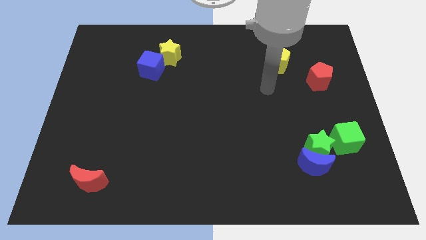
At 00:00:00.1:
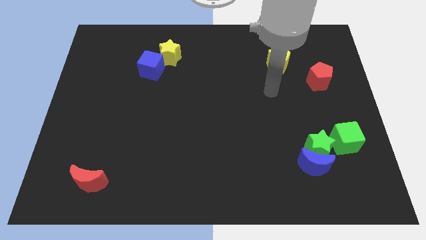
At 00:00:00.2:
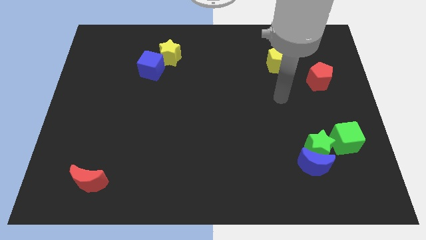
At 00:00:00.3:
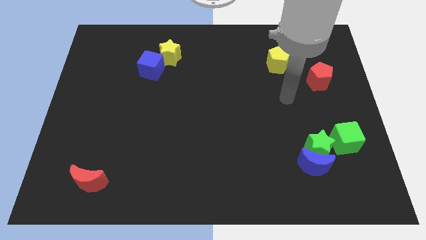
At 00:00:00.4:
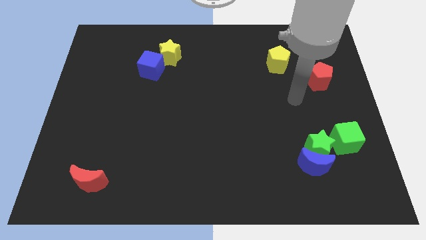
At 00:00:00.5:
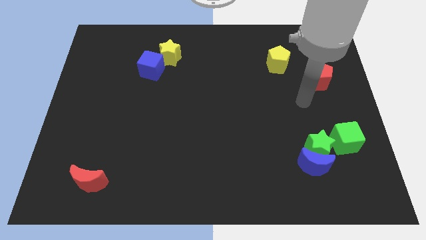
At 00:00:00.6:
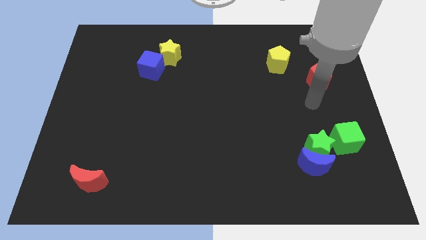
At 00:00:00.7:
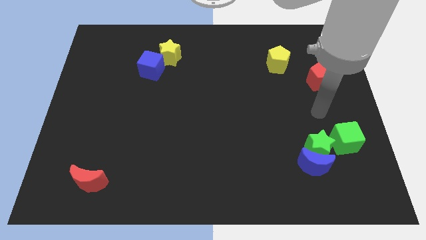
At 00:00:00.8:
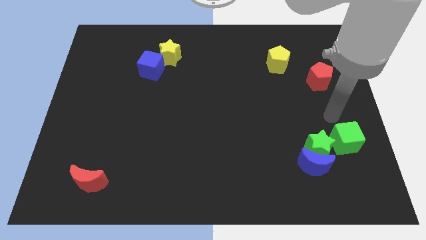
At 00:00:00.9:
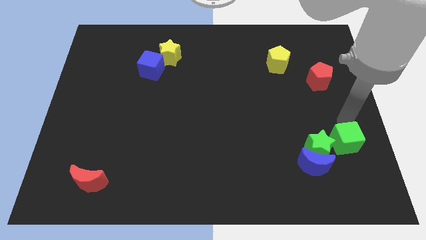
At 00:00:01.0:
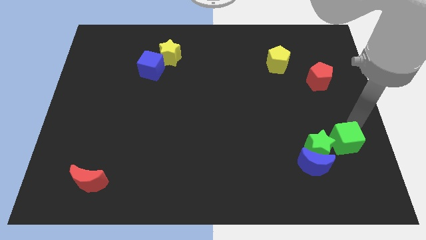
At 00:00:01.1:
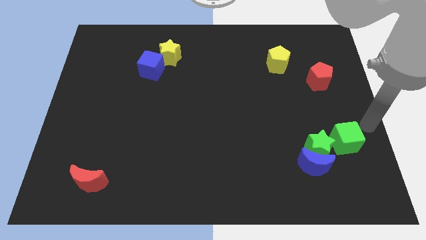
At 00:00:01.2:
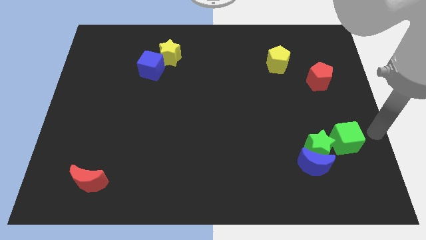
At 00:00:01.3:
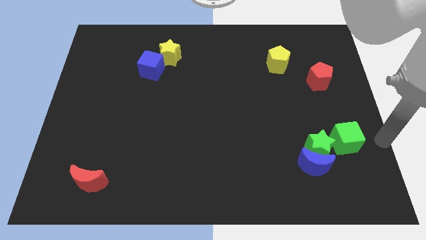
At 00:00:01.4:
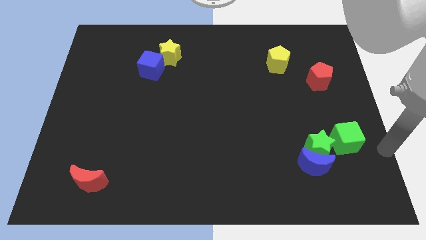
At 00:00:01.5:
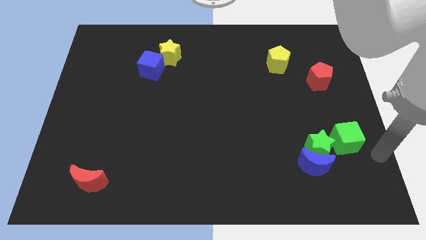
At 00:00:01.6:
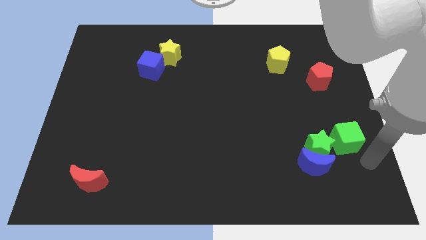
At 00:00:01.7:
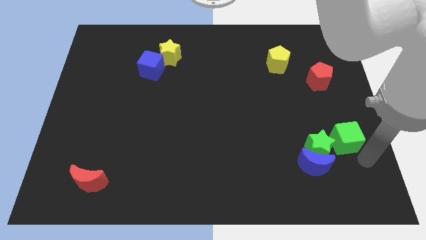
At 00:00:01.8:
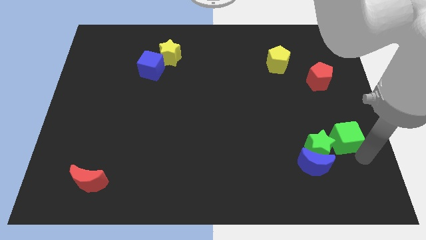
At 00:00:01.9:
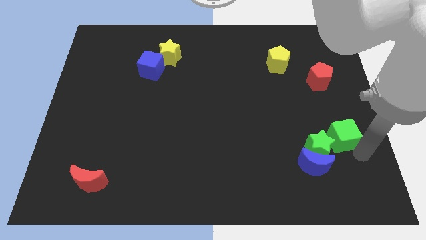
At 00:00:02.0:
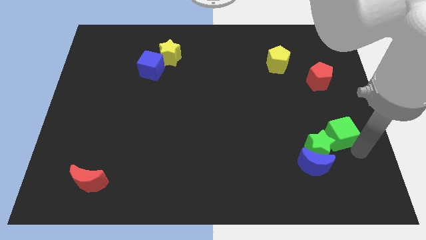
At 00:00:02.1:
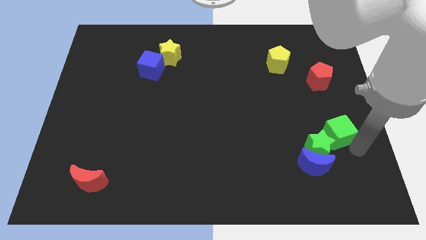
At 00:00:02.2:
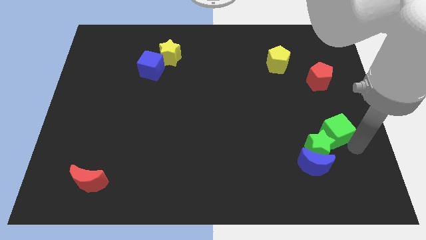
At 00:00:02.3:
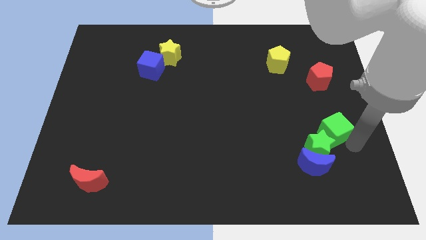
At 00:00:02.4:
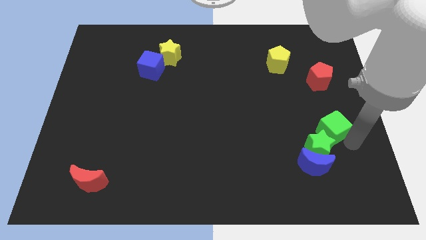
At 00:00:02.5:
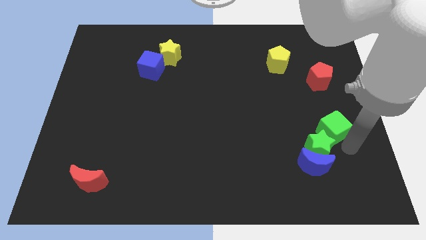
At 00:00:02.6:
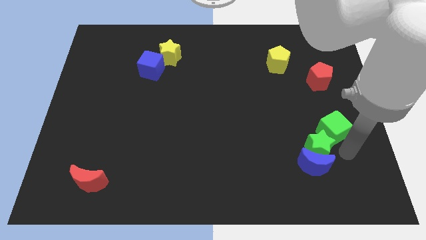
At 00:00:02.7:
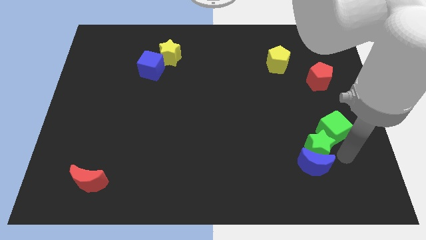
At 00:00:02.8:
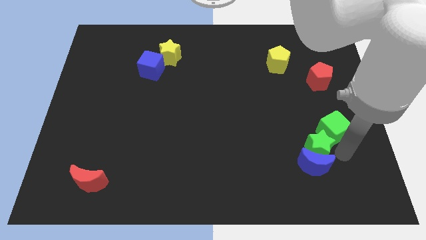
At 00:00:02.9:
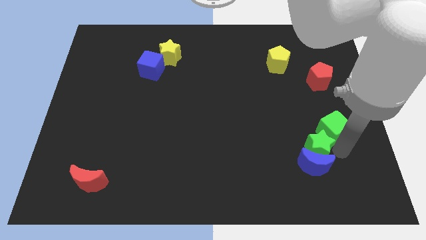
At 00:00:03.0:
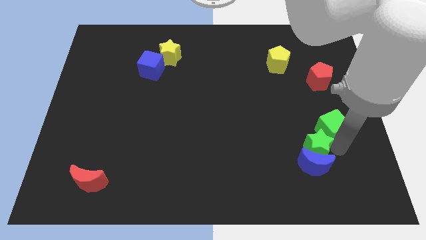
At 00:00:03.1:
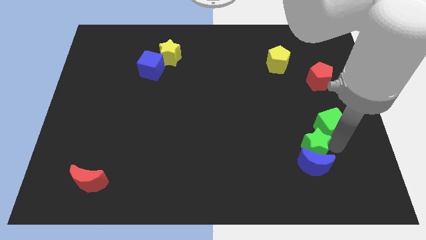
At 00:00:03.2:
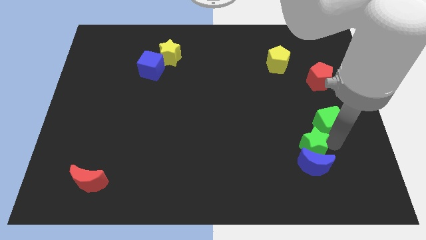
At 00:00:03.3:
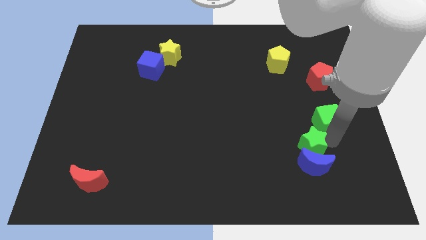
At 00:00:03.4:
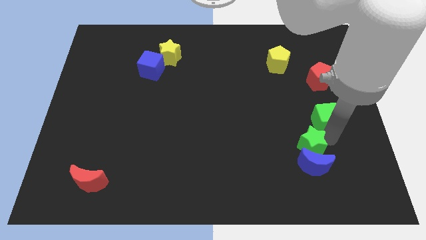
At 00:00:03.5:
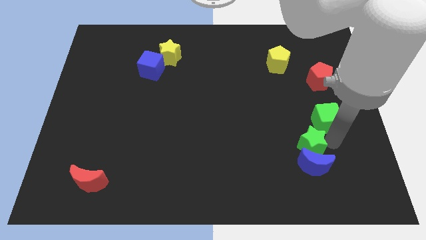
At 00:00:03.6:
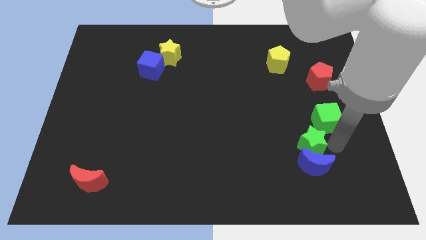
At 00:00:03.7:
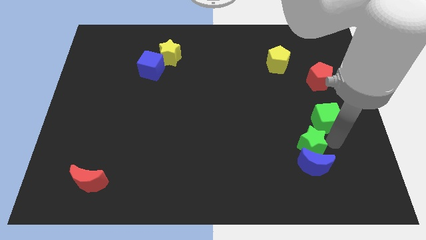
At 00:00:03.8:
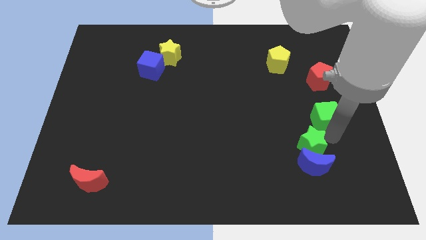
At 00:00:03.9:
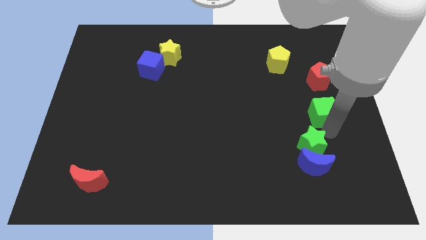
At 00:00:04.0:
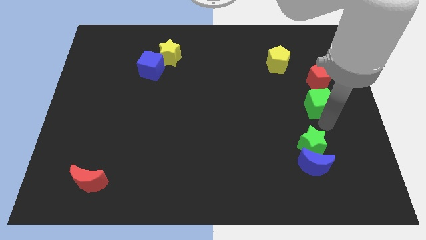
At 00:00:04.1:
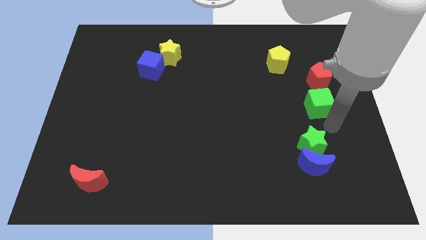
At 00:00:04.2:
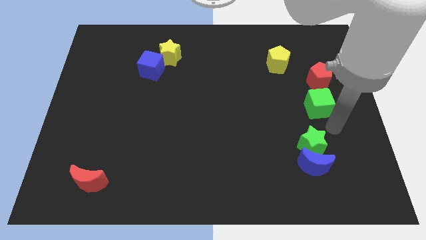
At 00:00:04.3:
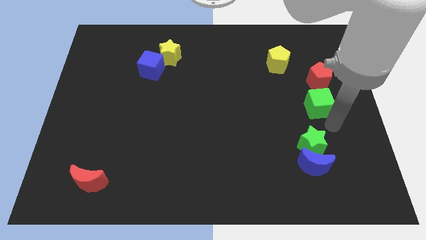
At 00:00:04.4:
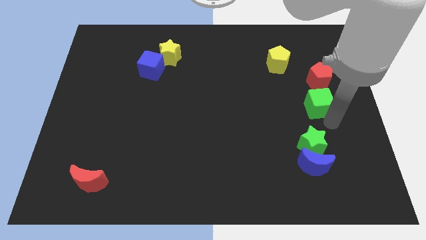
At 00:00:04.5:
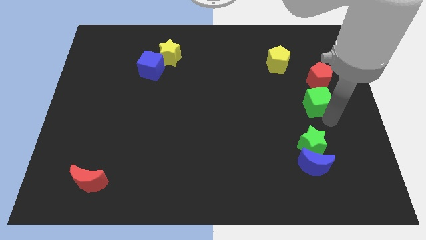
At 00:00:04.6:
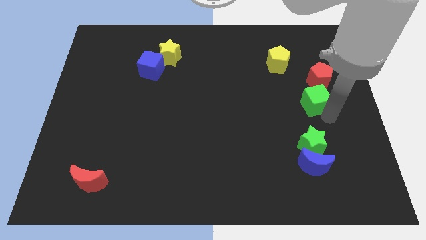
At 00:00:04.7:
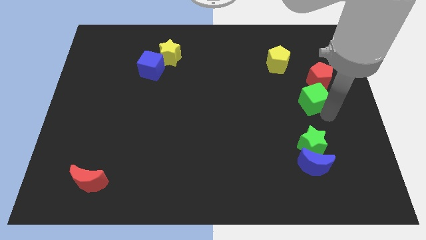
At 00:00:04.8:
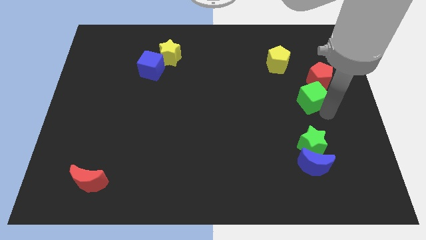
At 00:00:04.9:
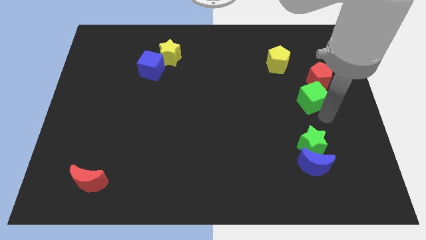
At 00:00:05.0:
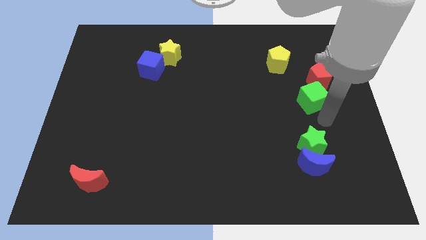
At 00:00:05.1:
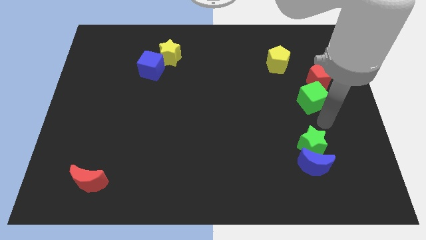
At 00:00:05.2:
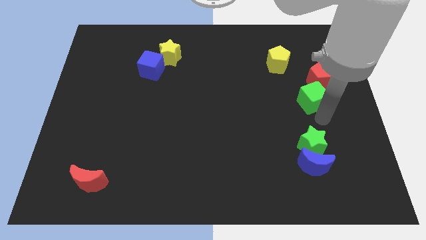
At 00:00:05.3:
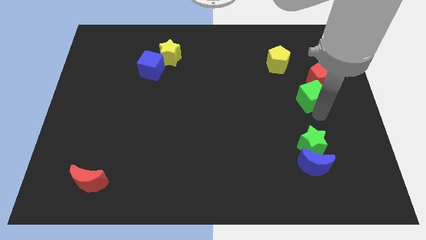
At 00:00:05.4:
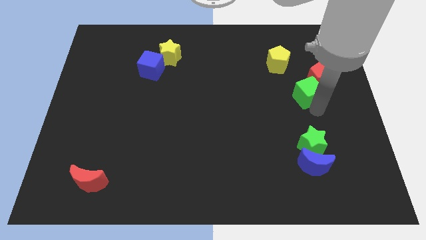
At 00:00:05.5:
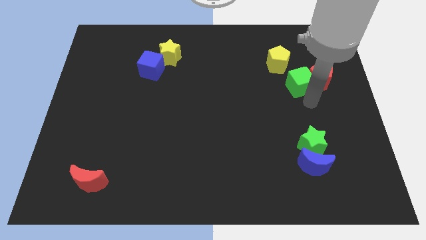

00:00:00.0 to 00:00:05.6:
move the green cube to the top left side of the red pentagon

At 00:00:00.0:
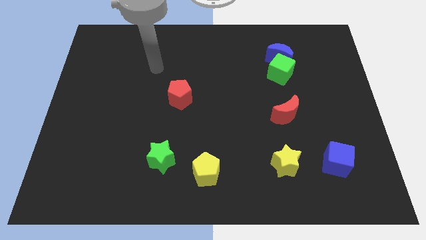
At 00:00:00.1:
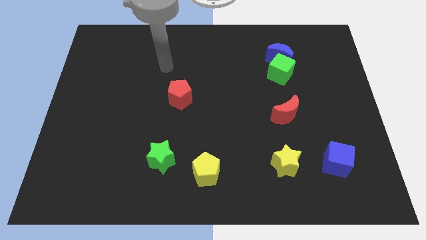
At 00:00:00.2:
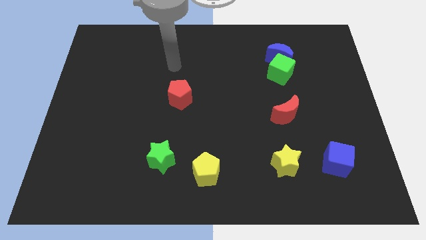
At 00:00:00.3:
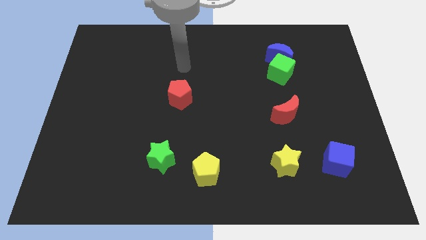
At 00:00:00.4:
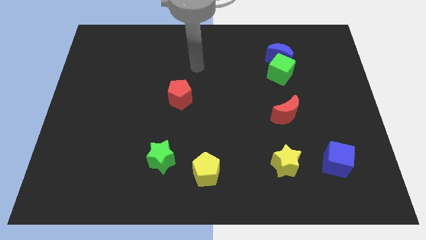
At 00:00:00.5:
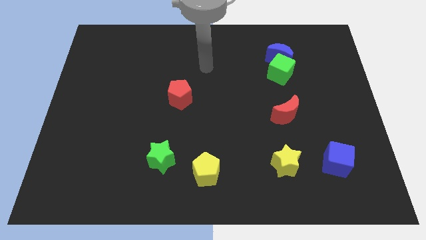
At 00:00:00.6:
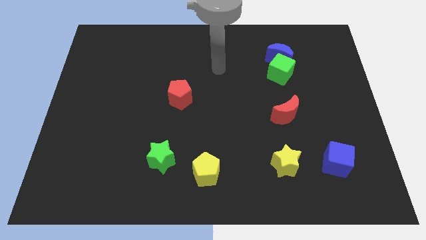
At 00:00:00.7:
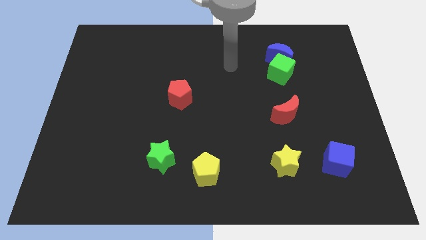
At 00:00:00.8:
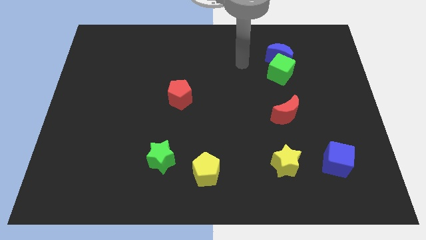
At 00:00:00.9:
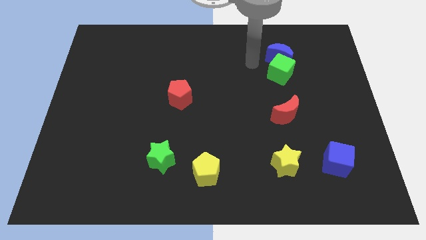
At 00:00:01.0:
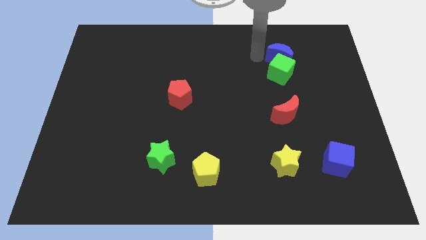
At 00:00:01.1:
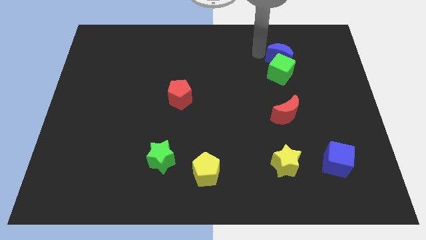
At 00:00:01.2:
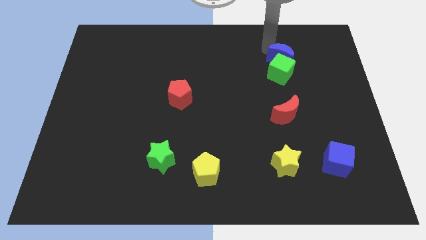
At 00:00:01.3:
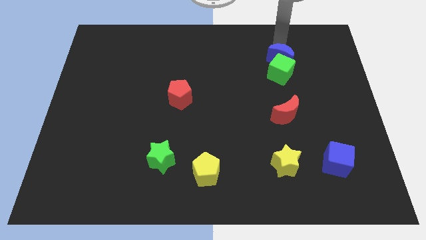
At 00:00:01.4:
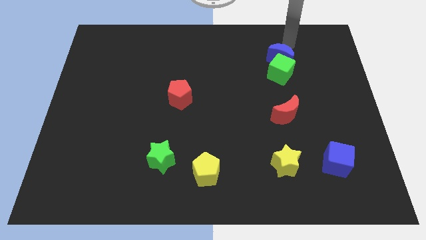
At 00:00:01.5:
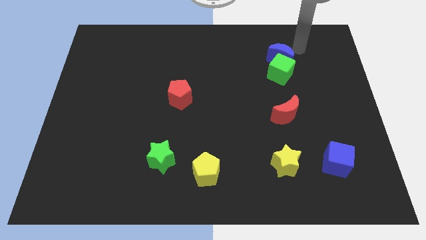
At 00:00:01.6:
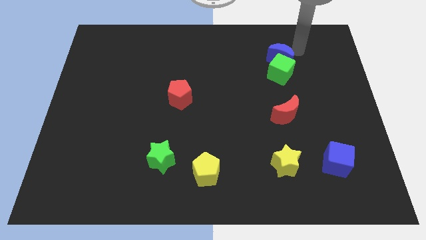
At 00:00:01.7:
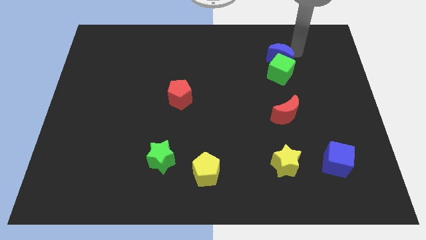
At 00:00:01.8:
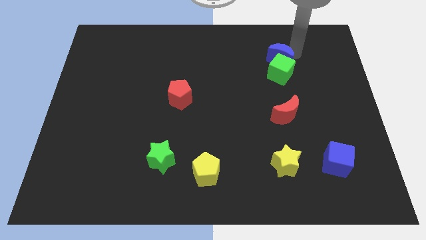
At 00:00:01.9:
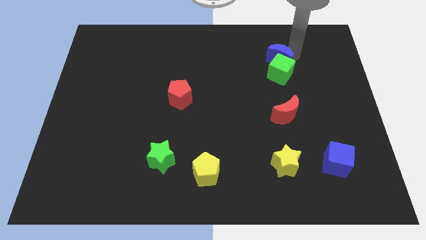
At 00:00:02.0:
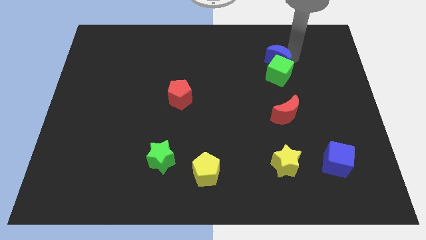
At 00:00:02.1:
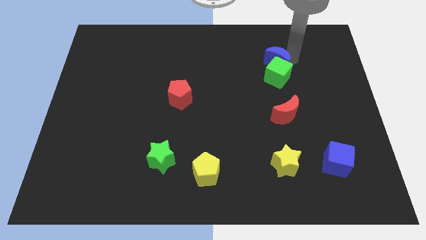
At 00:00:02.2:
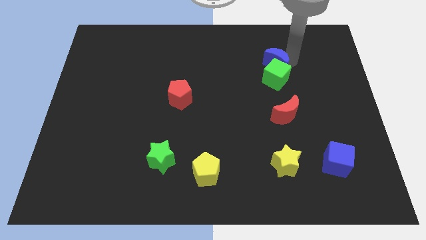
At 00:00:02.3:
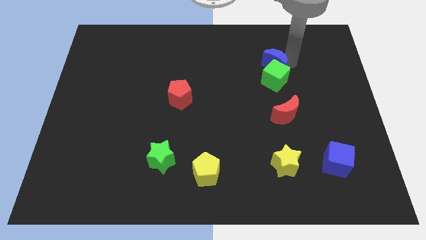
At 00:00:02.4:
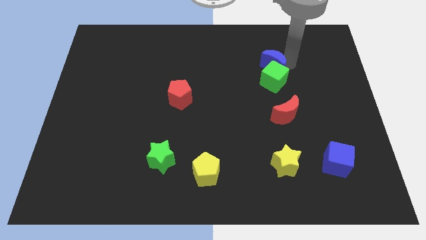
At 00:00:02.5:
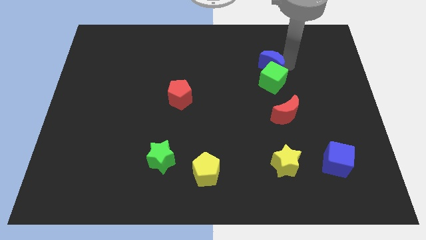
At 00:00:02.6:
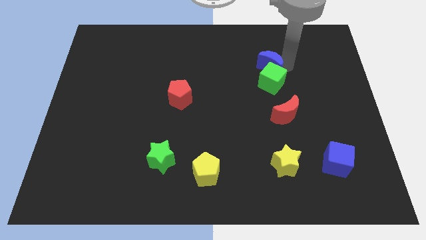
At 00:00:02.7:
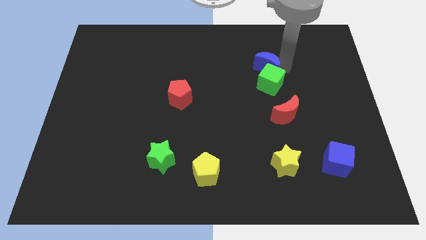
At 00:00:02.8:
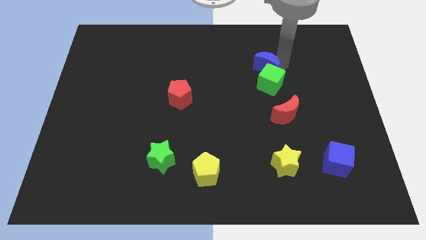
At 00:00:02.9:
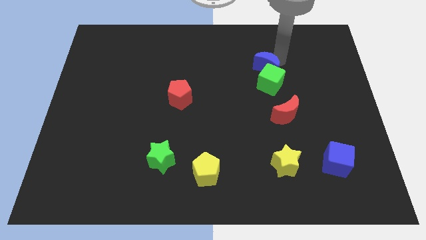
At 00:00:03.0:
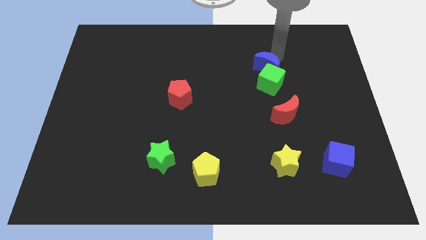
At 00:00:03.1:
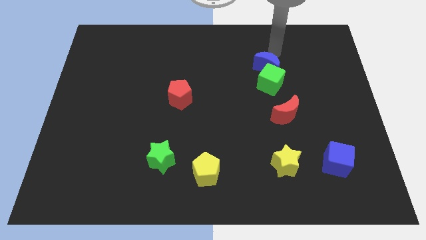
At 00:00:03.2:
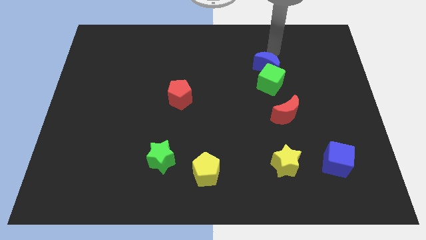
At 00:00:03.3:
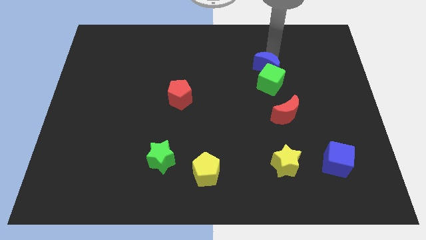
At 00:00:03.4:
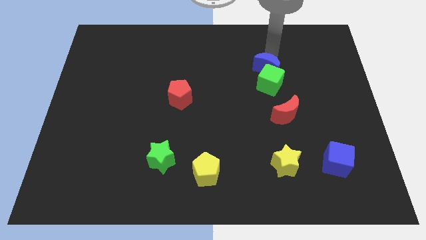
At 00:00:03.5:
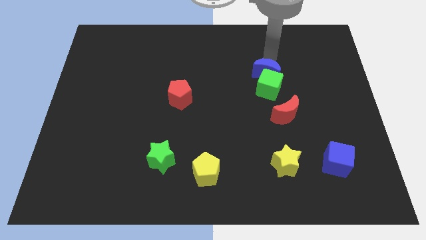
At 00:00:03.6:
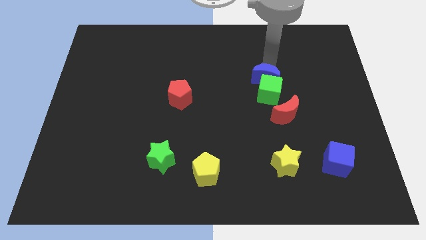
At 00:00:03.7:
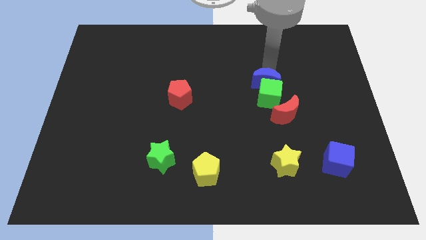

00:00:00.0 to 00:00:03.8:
put the blue moon to the top left of the red moon
